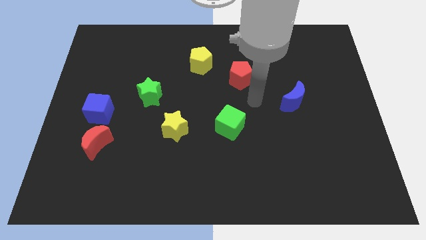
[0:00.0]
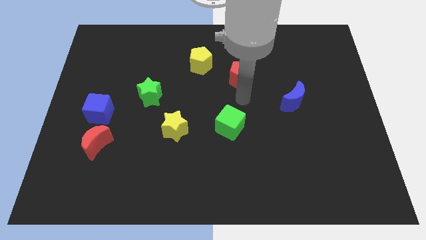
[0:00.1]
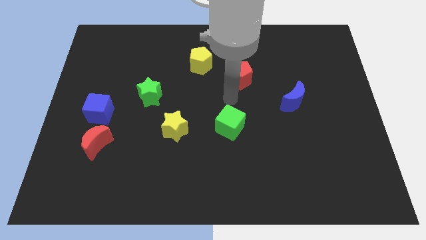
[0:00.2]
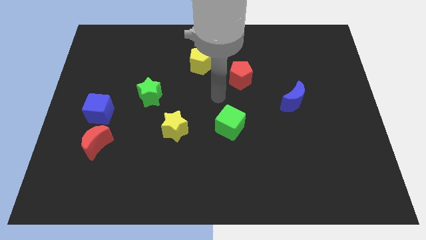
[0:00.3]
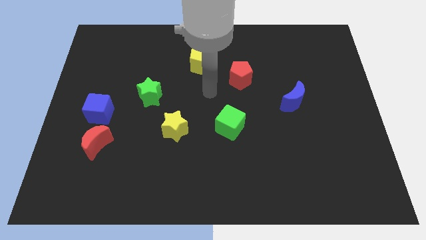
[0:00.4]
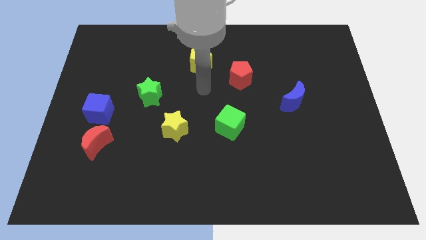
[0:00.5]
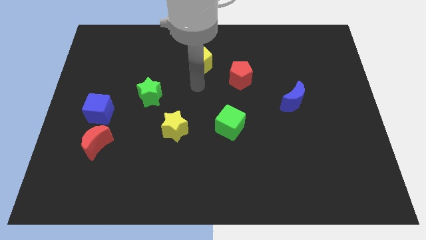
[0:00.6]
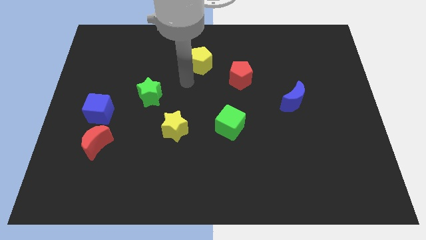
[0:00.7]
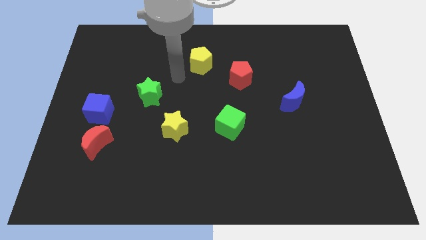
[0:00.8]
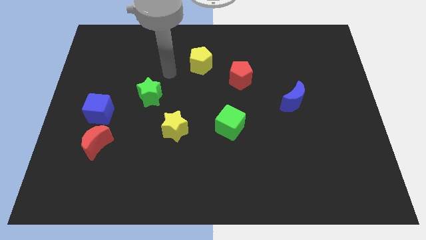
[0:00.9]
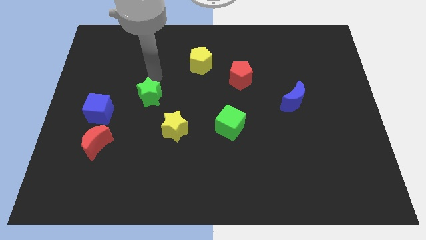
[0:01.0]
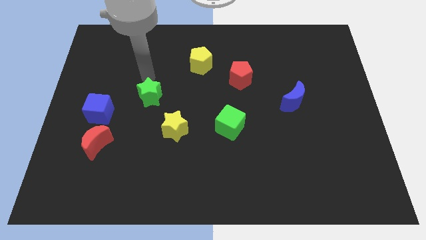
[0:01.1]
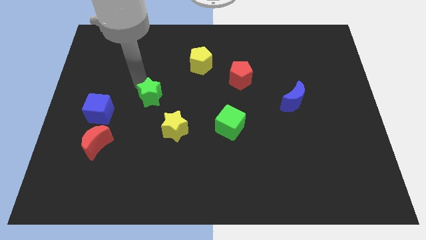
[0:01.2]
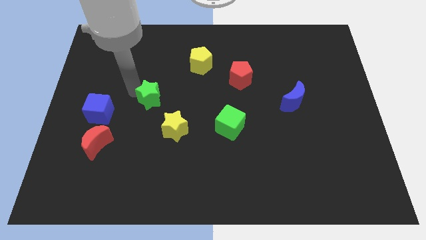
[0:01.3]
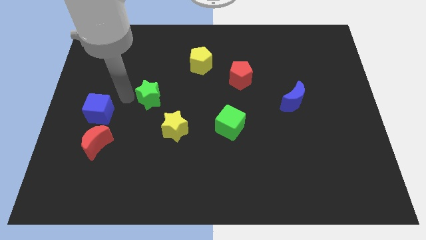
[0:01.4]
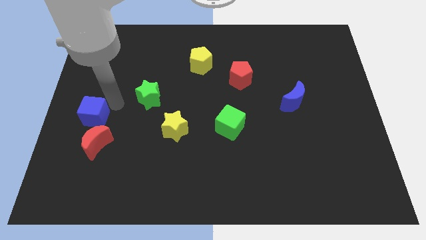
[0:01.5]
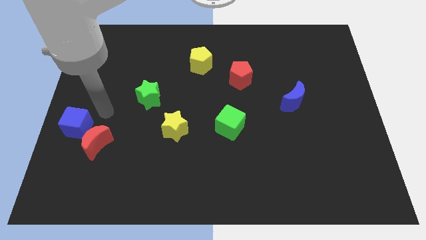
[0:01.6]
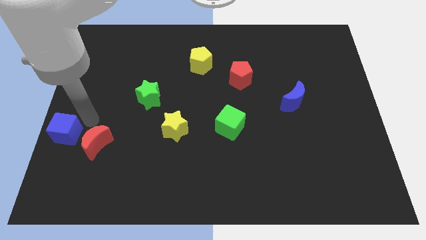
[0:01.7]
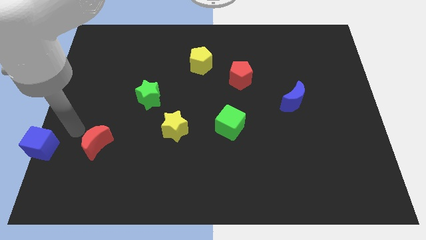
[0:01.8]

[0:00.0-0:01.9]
pull the red moon apart from the blue cube

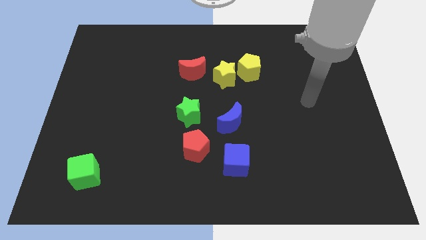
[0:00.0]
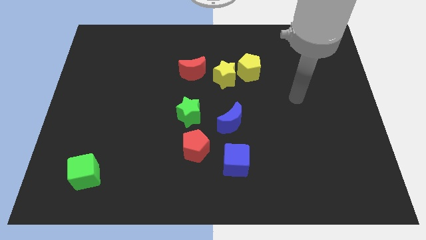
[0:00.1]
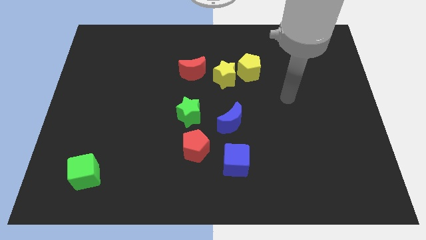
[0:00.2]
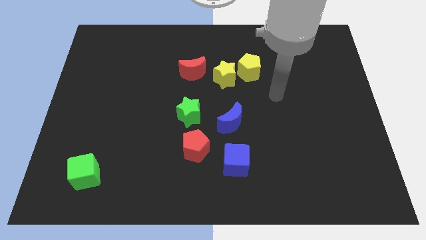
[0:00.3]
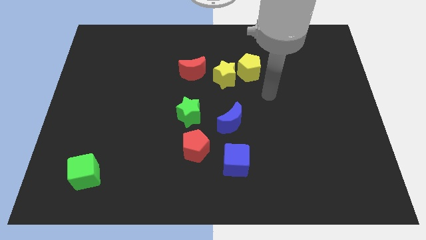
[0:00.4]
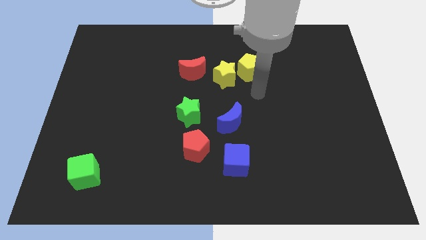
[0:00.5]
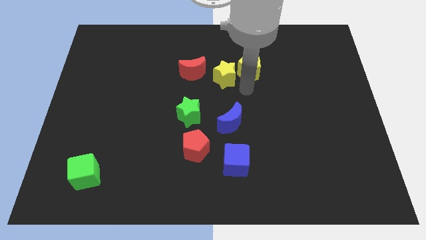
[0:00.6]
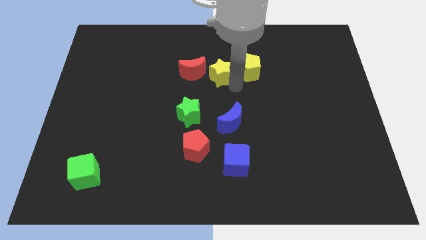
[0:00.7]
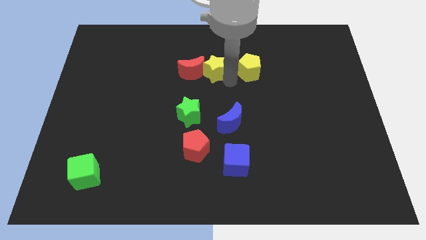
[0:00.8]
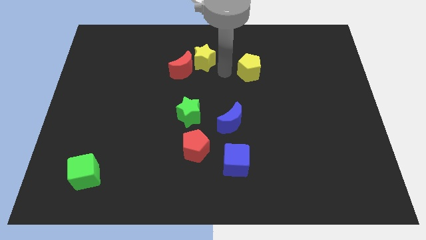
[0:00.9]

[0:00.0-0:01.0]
move the yellow pentagon away from the yellow star

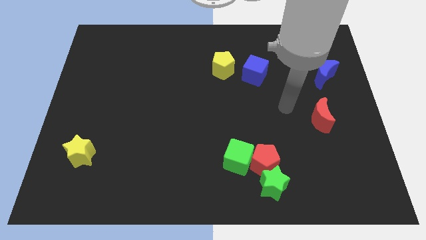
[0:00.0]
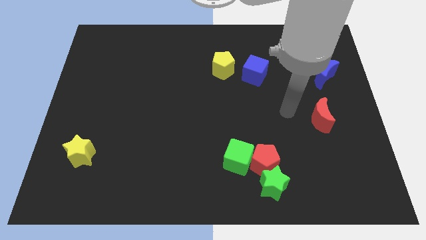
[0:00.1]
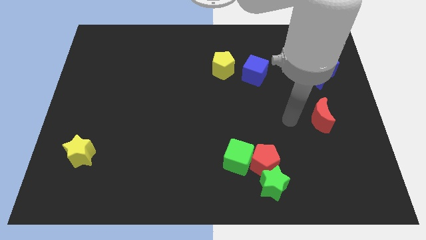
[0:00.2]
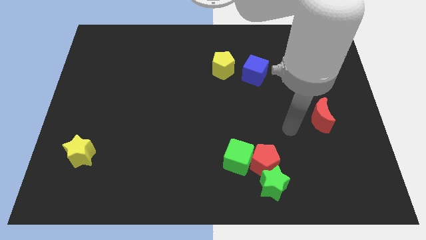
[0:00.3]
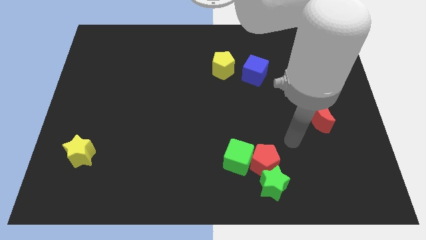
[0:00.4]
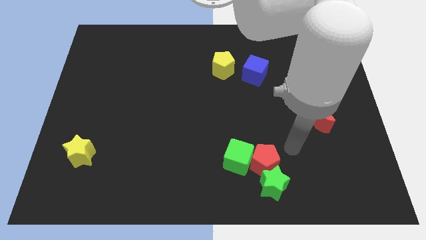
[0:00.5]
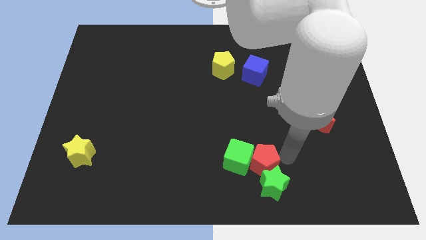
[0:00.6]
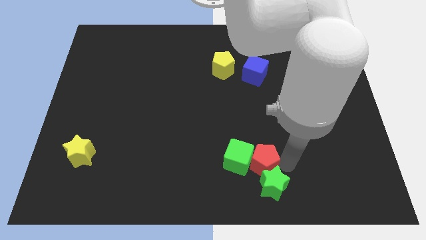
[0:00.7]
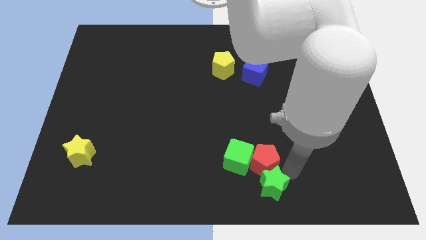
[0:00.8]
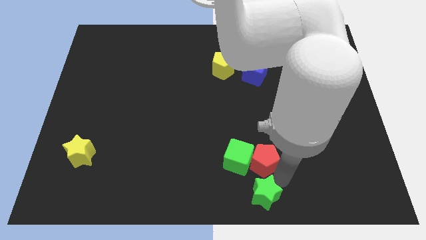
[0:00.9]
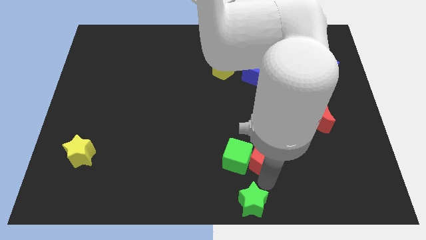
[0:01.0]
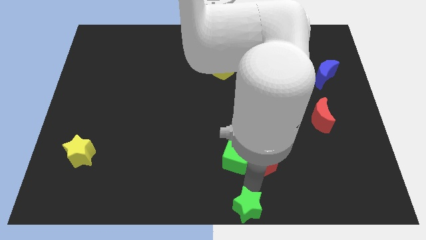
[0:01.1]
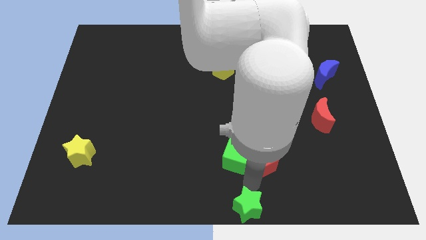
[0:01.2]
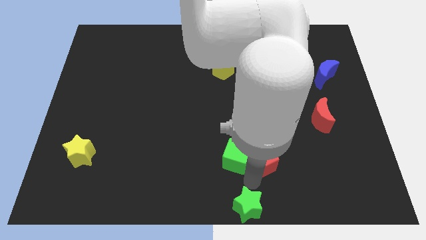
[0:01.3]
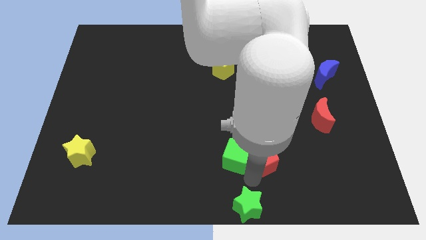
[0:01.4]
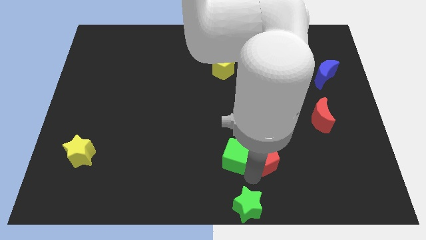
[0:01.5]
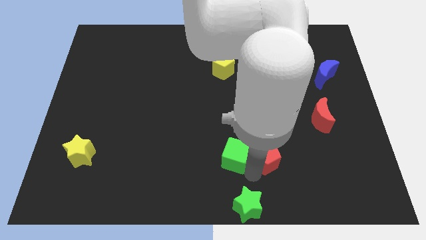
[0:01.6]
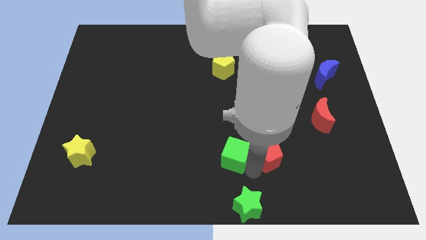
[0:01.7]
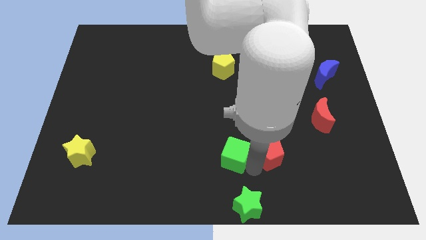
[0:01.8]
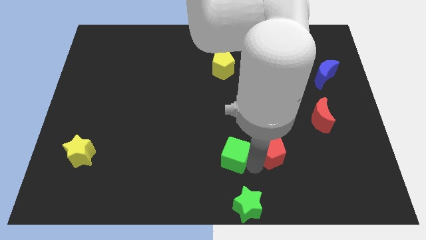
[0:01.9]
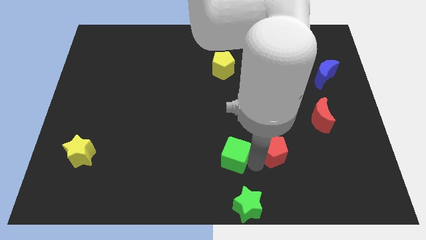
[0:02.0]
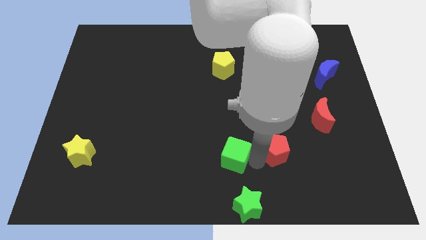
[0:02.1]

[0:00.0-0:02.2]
separate the red pentagon from the green star and green cube

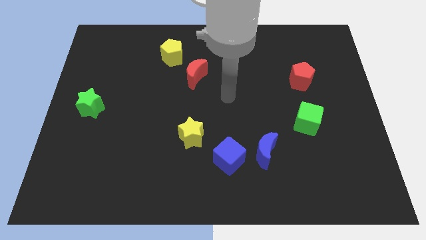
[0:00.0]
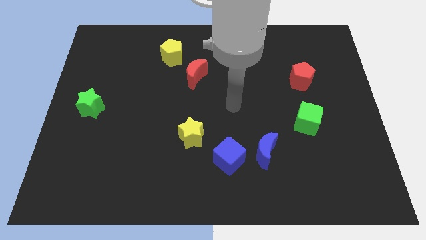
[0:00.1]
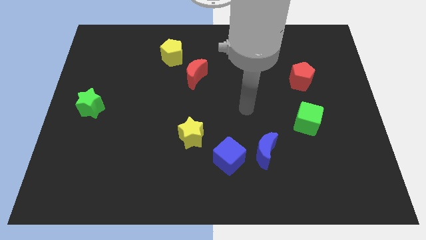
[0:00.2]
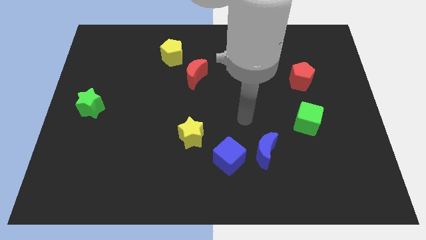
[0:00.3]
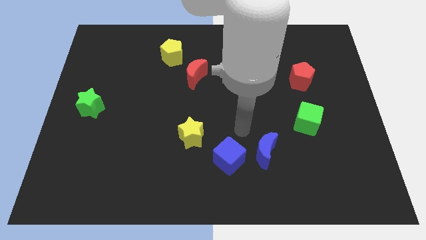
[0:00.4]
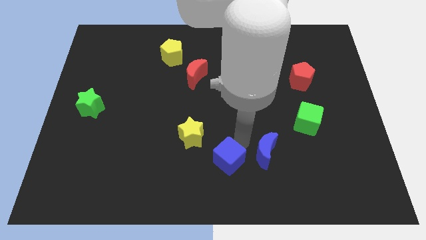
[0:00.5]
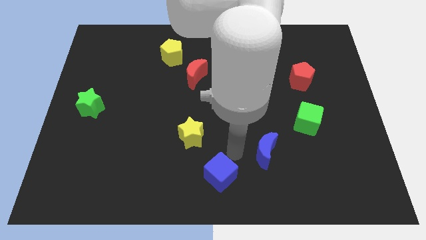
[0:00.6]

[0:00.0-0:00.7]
move the blue moon away from the blue cube

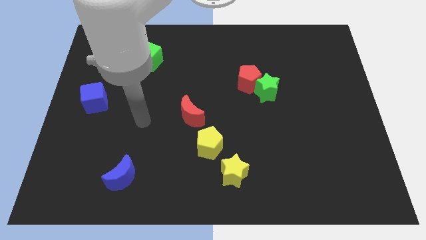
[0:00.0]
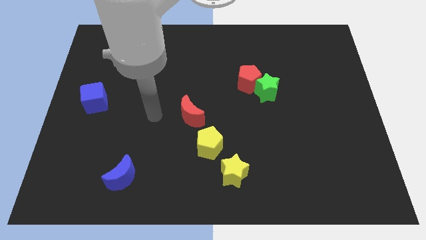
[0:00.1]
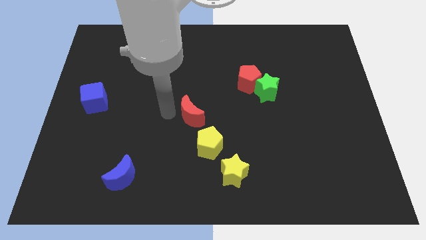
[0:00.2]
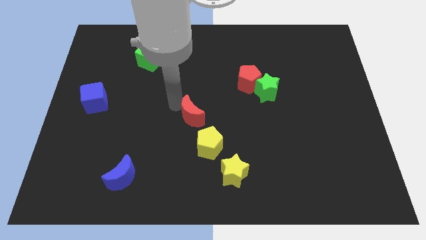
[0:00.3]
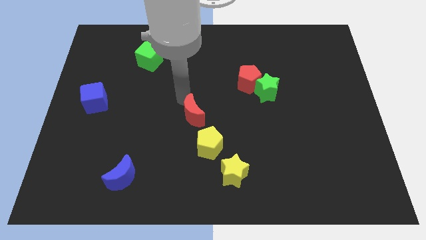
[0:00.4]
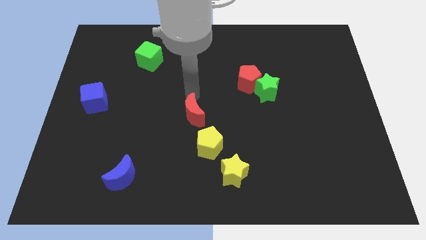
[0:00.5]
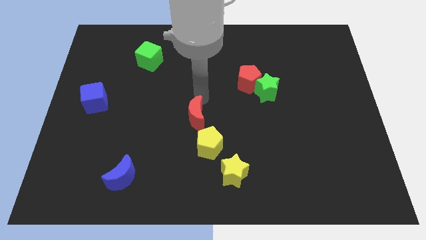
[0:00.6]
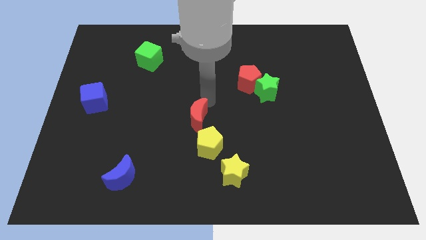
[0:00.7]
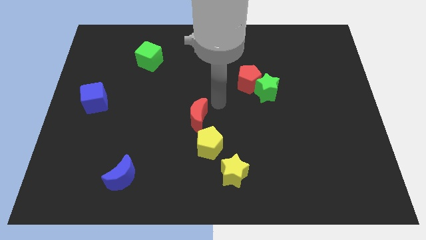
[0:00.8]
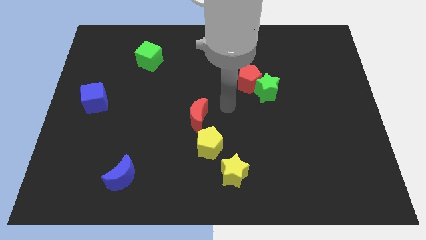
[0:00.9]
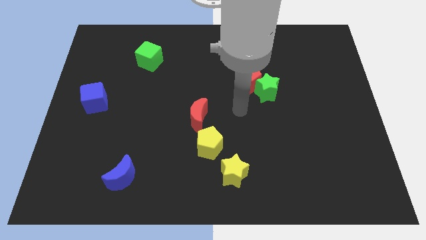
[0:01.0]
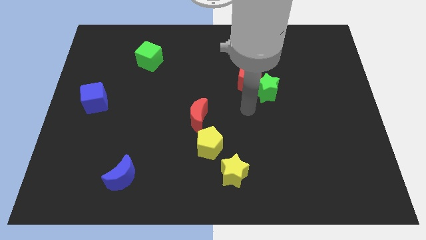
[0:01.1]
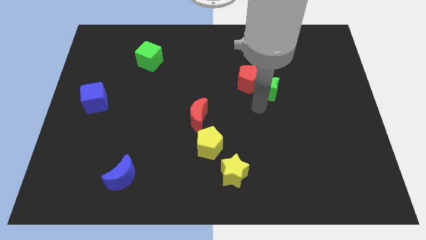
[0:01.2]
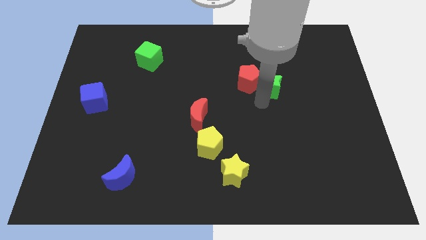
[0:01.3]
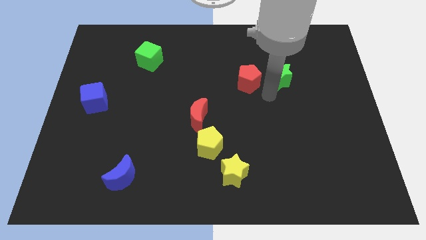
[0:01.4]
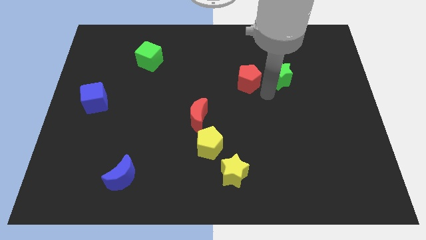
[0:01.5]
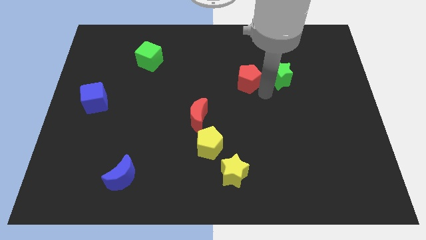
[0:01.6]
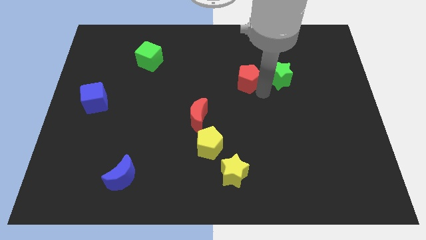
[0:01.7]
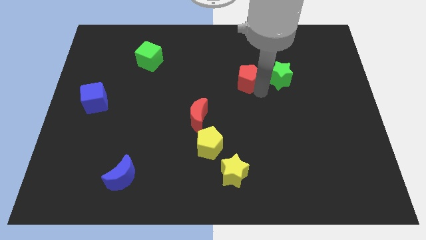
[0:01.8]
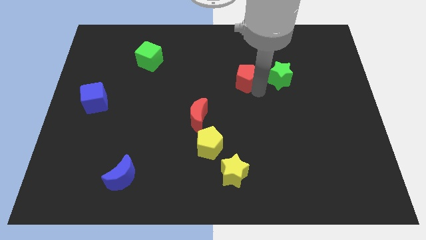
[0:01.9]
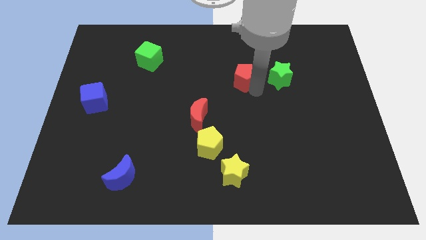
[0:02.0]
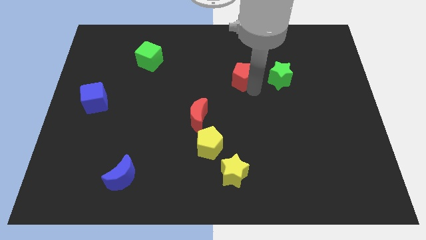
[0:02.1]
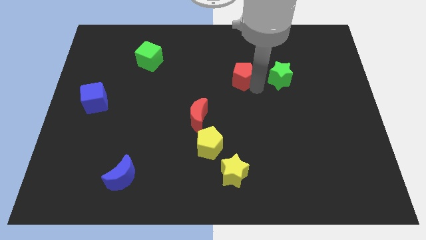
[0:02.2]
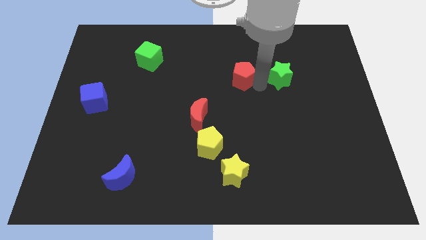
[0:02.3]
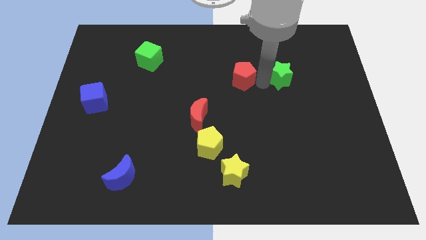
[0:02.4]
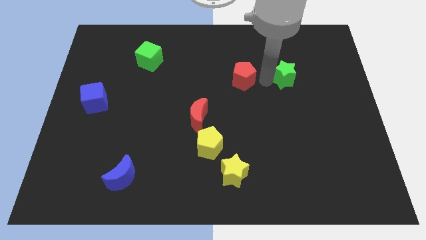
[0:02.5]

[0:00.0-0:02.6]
move the red pentagon away from the green star

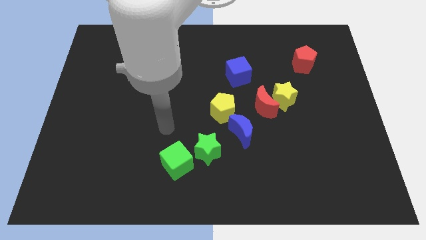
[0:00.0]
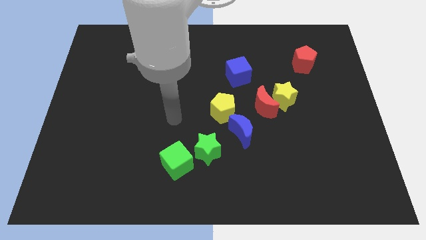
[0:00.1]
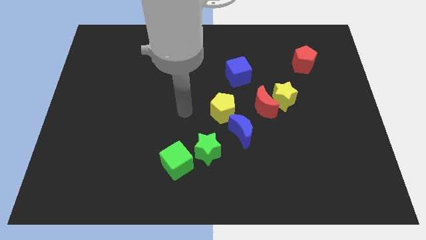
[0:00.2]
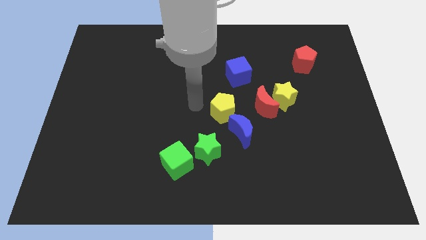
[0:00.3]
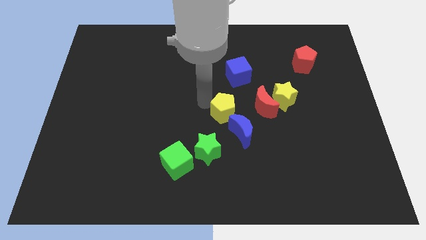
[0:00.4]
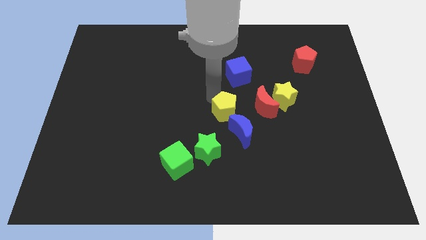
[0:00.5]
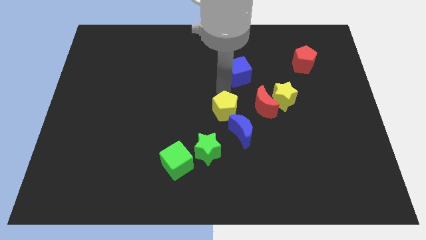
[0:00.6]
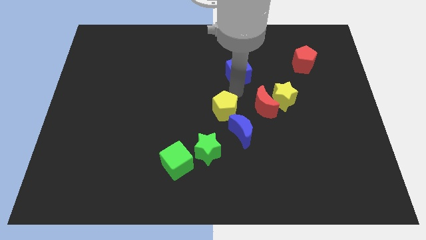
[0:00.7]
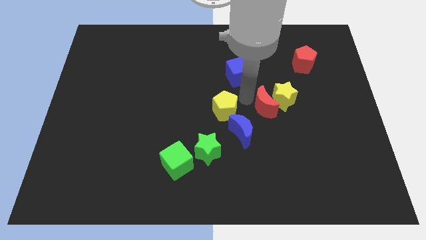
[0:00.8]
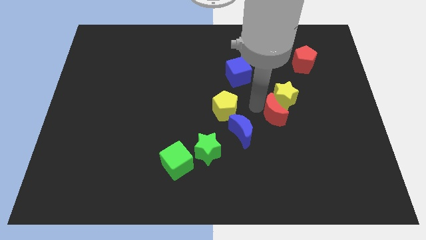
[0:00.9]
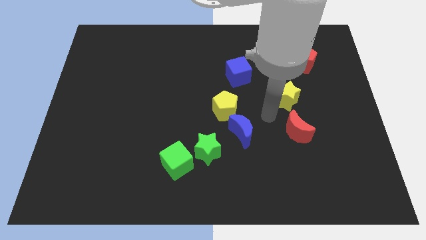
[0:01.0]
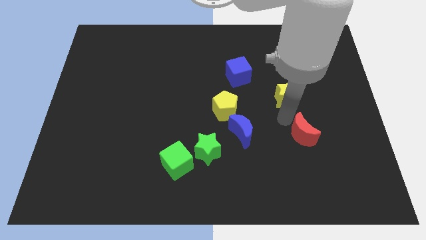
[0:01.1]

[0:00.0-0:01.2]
pull the yellow star apart from the red moon
